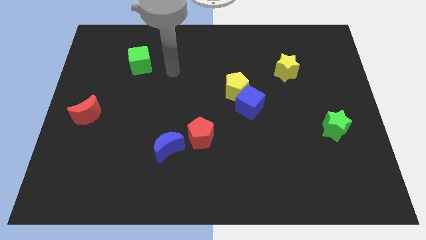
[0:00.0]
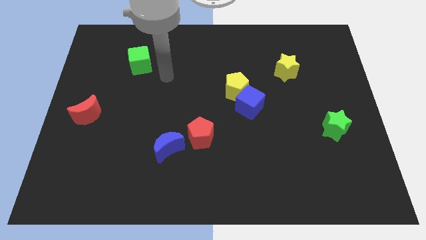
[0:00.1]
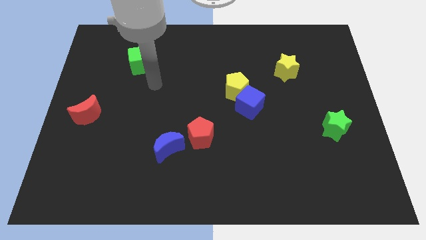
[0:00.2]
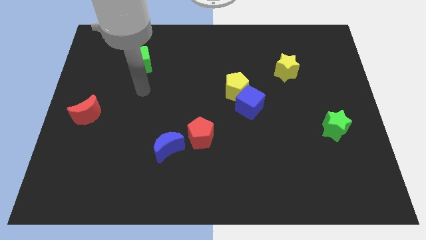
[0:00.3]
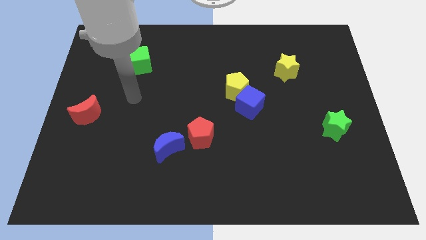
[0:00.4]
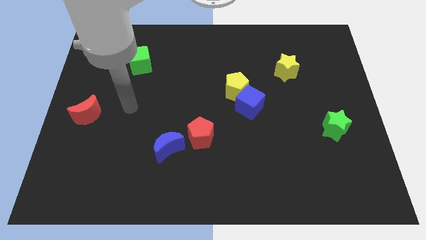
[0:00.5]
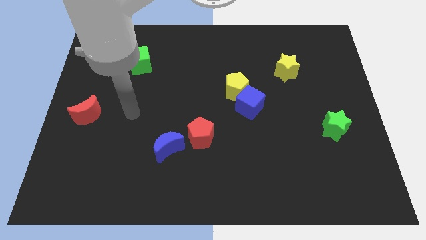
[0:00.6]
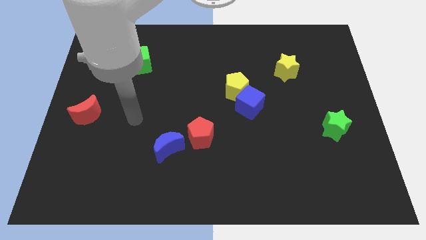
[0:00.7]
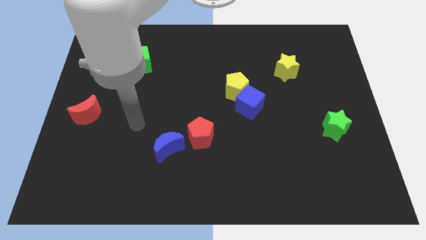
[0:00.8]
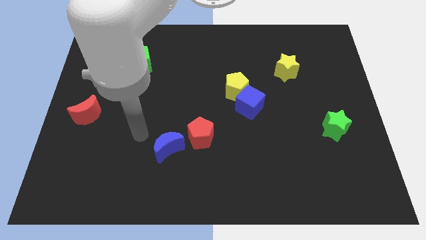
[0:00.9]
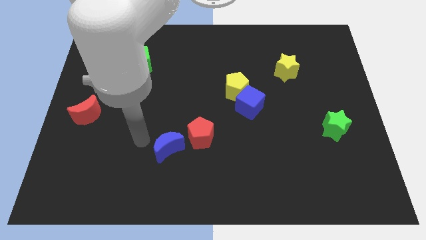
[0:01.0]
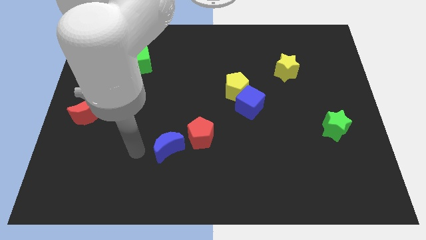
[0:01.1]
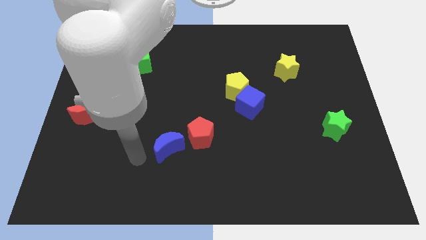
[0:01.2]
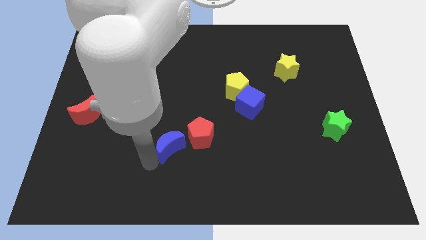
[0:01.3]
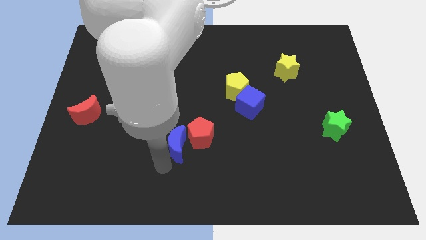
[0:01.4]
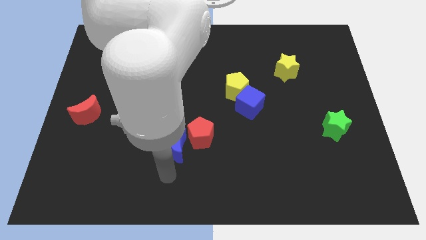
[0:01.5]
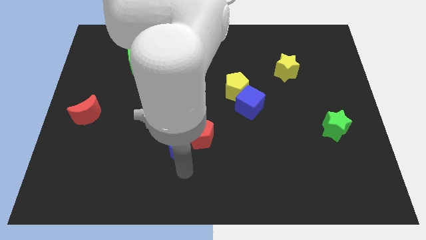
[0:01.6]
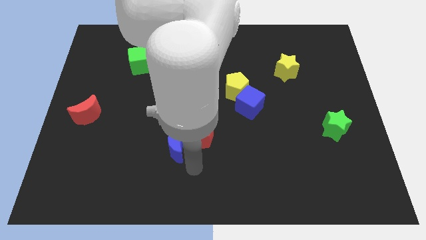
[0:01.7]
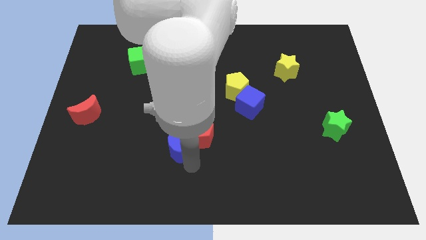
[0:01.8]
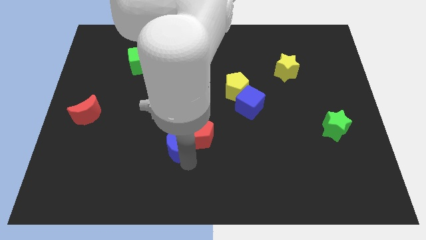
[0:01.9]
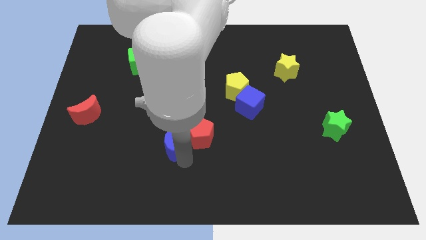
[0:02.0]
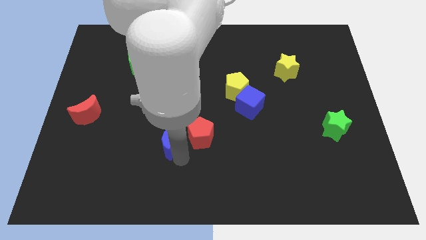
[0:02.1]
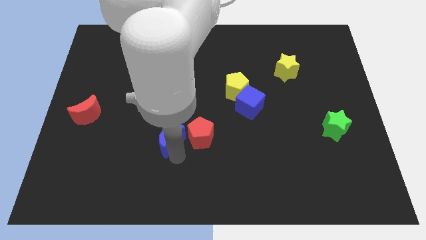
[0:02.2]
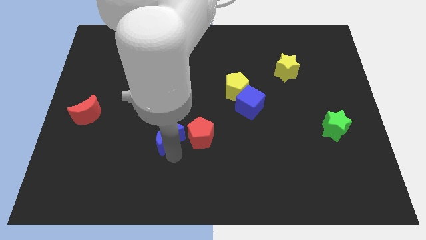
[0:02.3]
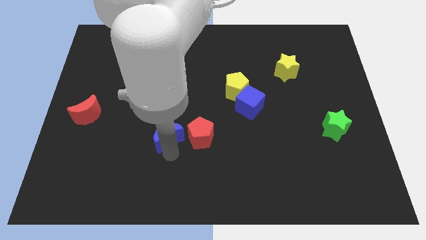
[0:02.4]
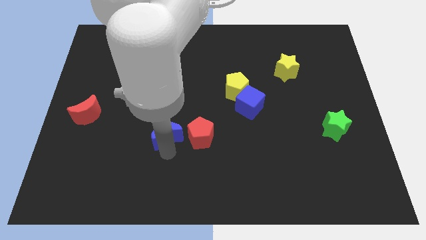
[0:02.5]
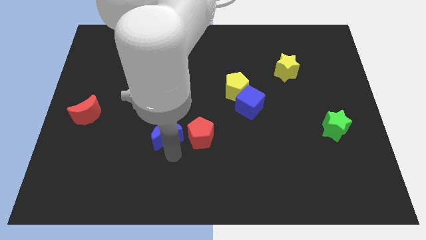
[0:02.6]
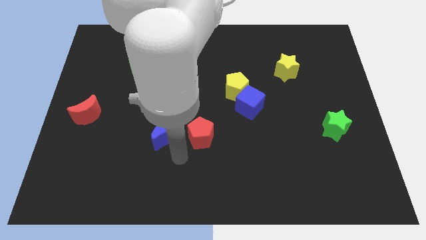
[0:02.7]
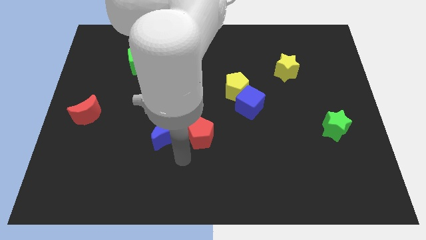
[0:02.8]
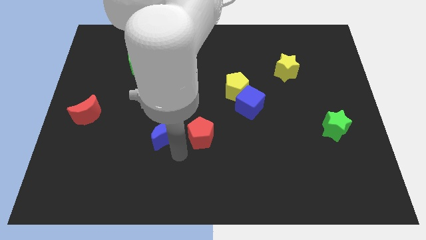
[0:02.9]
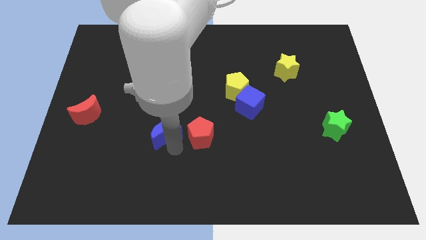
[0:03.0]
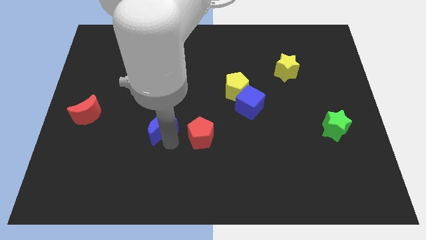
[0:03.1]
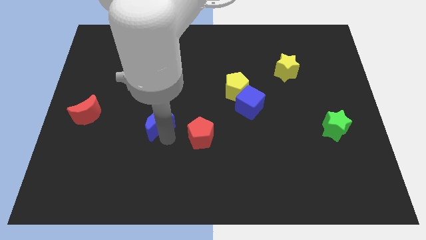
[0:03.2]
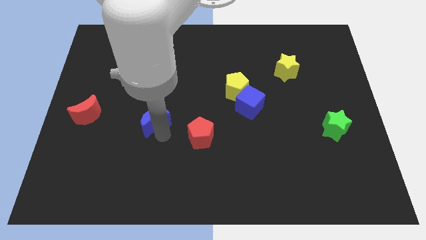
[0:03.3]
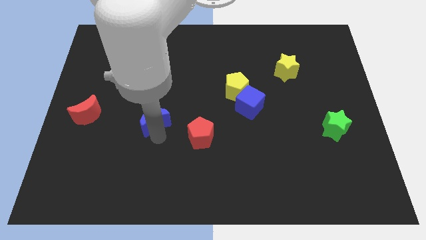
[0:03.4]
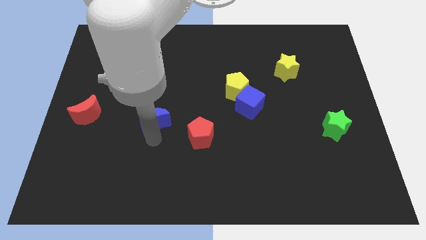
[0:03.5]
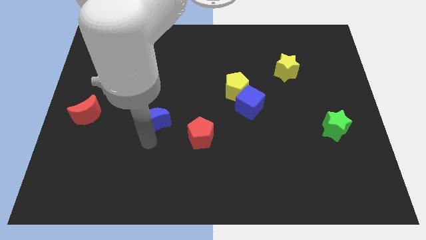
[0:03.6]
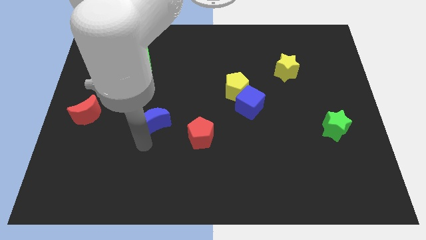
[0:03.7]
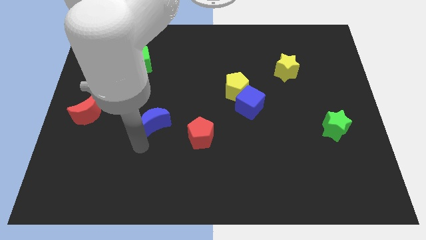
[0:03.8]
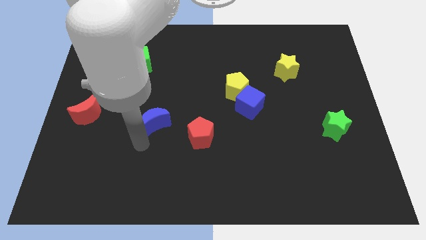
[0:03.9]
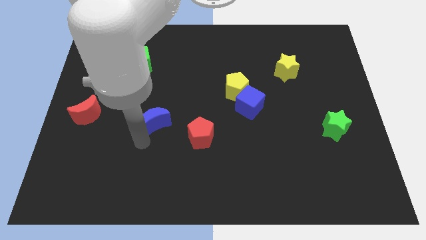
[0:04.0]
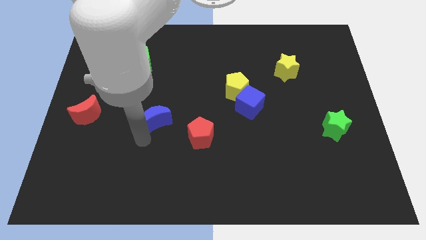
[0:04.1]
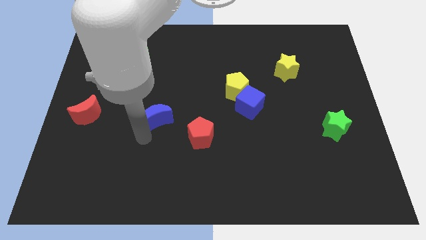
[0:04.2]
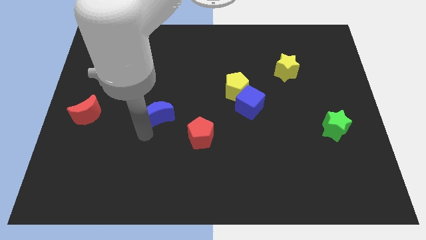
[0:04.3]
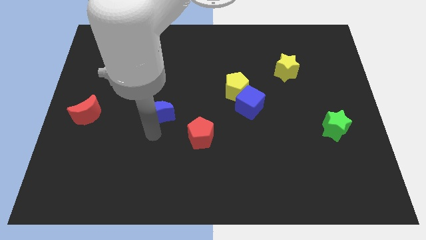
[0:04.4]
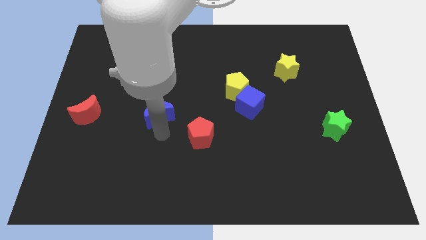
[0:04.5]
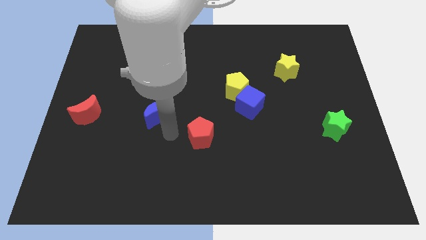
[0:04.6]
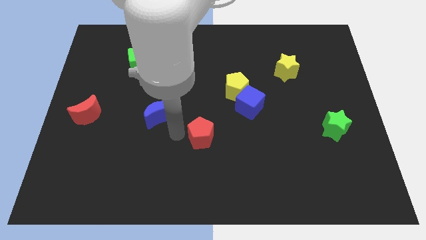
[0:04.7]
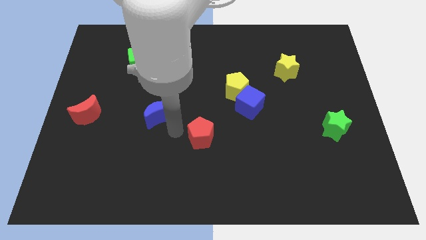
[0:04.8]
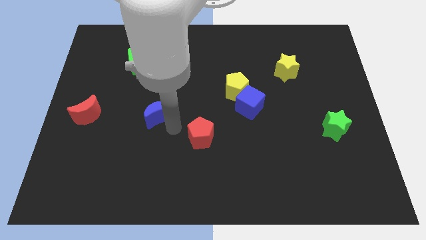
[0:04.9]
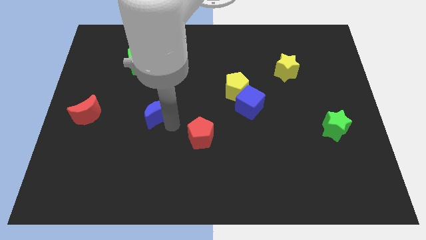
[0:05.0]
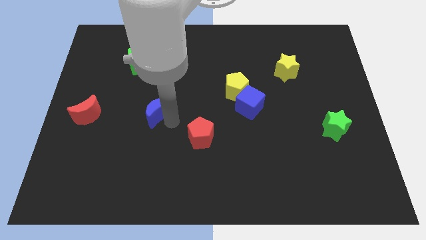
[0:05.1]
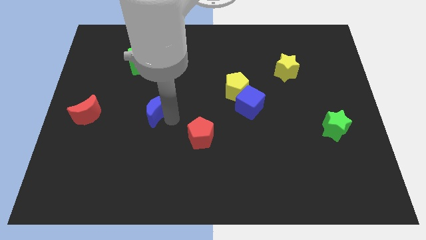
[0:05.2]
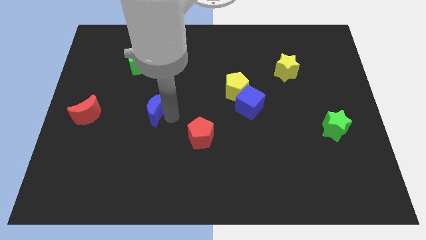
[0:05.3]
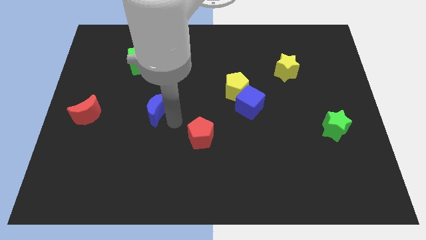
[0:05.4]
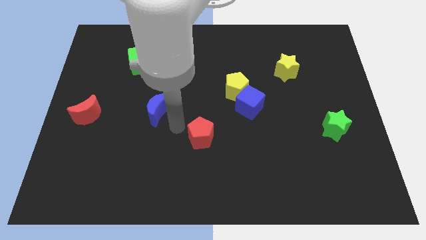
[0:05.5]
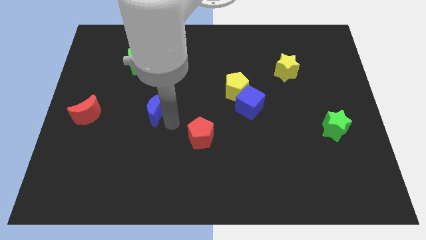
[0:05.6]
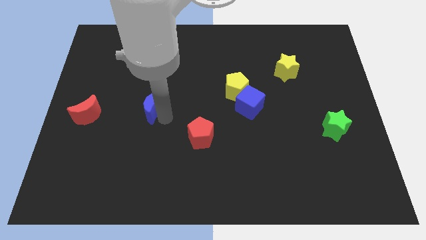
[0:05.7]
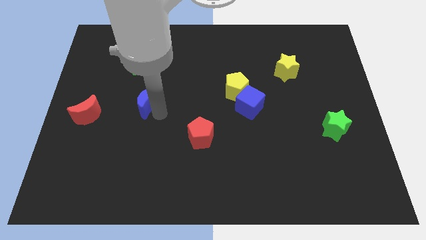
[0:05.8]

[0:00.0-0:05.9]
push the blue moon below the green cube

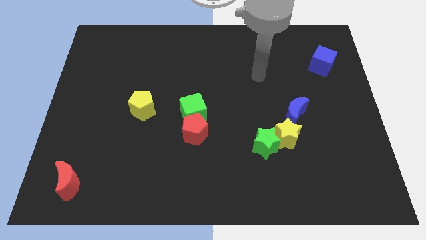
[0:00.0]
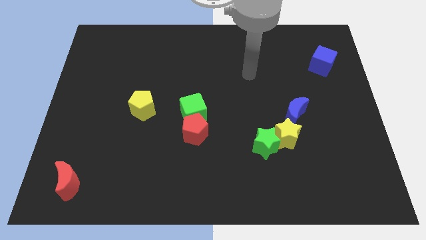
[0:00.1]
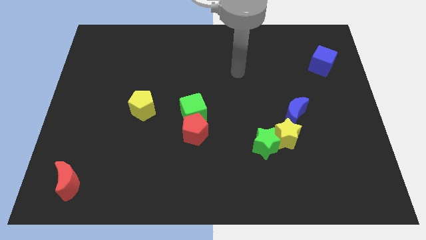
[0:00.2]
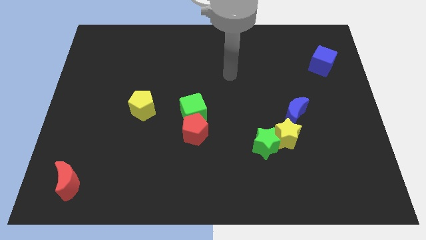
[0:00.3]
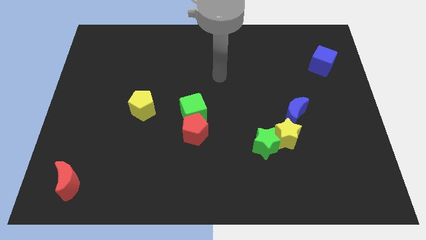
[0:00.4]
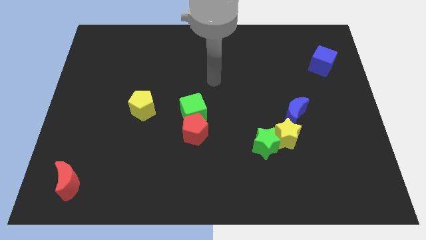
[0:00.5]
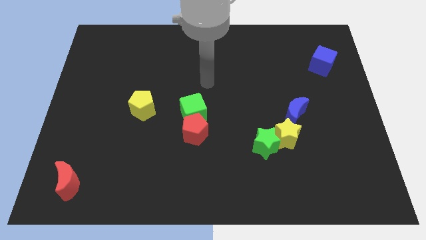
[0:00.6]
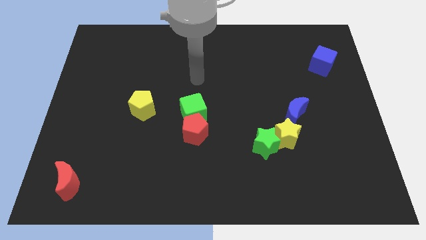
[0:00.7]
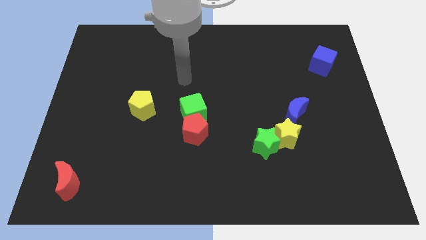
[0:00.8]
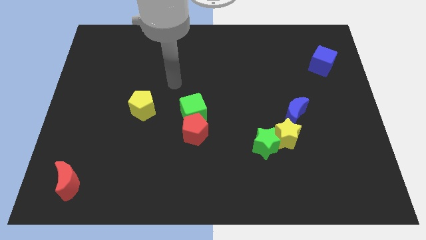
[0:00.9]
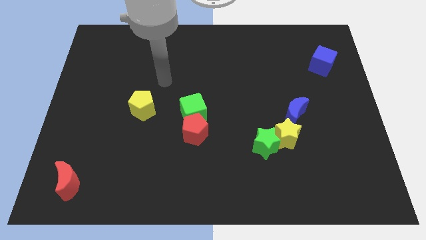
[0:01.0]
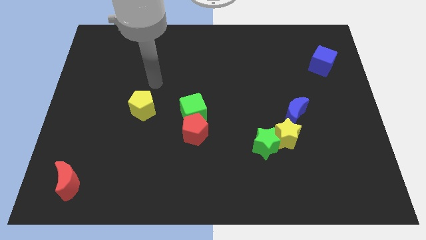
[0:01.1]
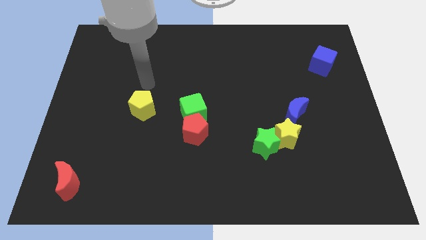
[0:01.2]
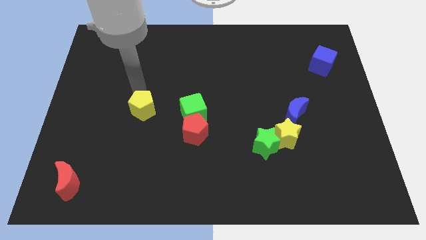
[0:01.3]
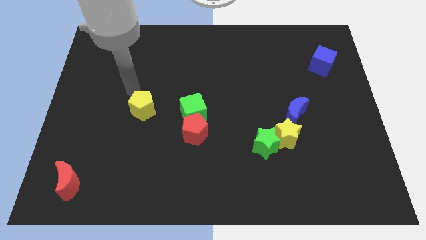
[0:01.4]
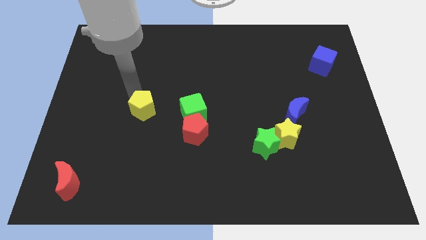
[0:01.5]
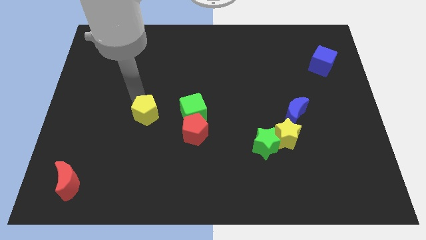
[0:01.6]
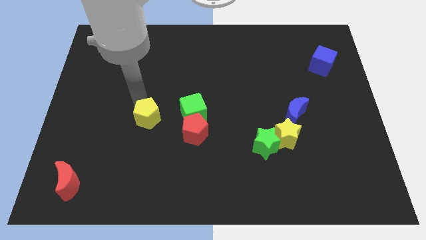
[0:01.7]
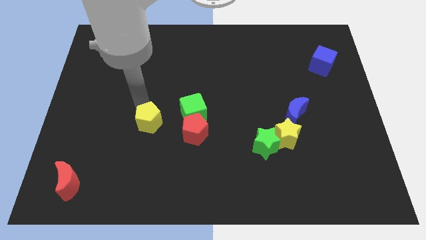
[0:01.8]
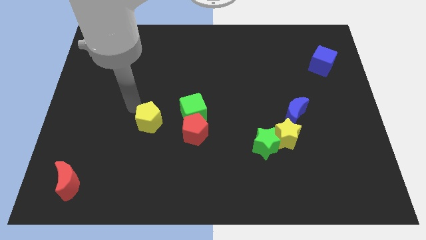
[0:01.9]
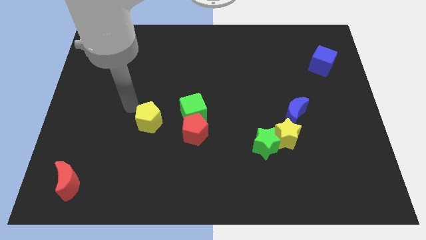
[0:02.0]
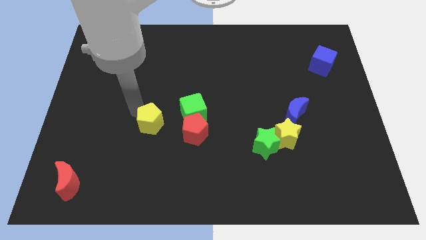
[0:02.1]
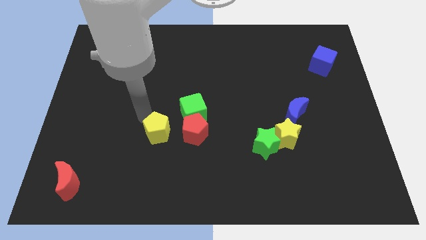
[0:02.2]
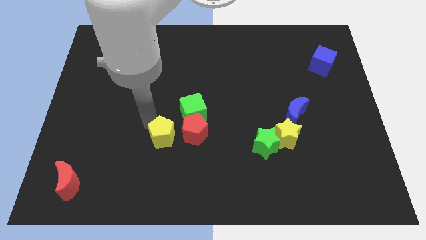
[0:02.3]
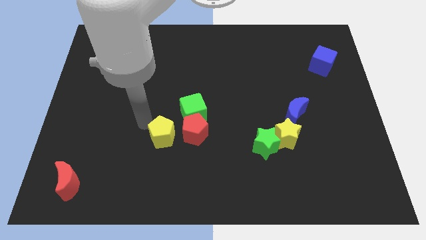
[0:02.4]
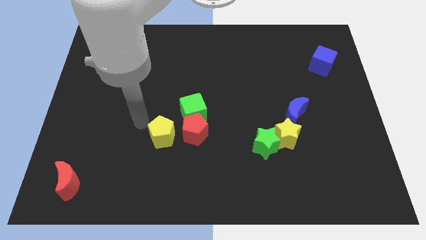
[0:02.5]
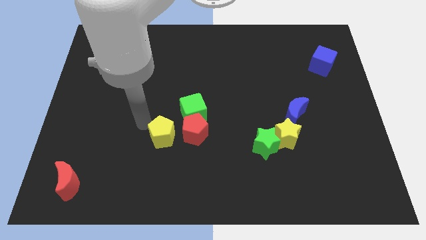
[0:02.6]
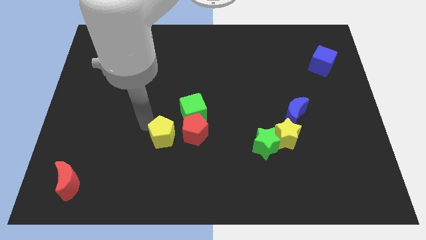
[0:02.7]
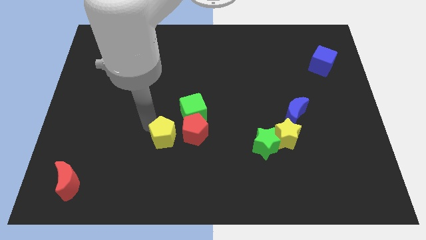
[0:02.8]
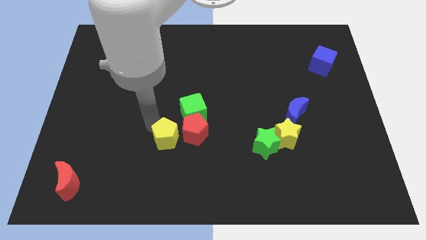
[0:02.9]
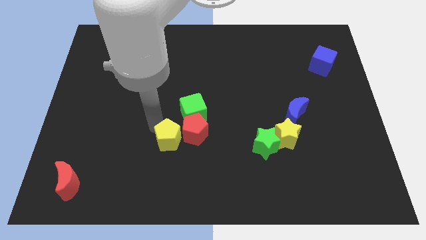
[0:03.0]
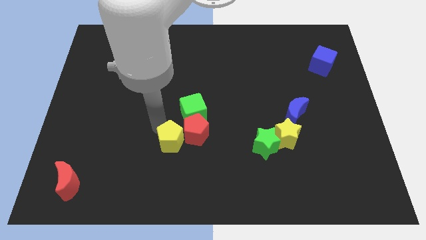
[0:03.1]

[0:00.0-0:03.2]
push the yellow pentagon to the bottom of the green cube
